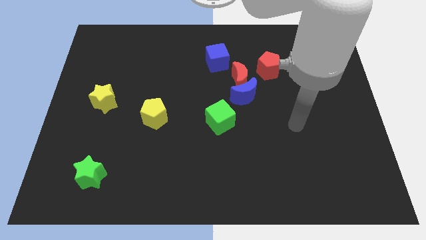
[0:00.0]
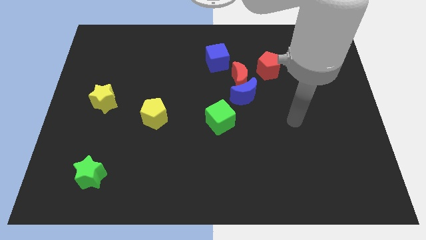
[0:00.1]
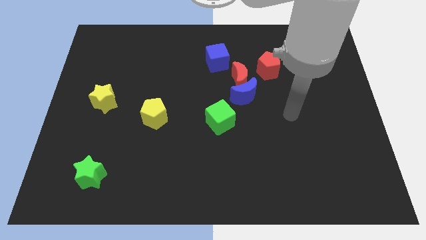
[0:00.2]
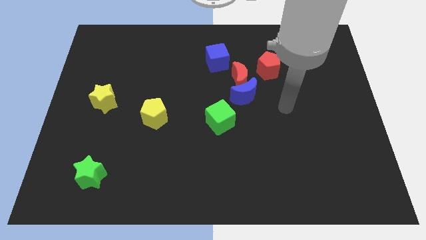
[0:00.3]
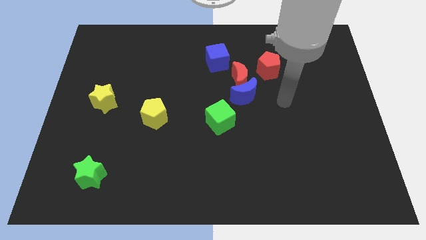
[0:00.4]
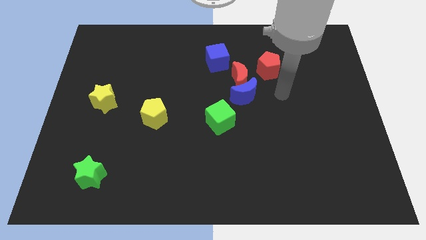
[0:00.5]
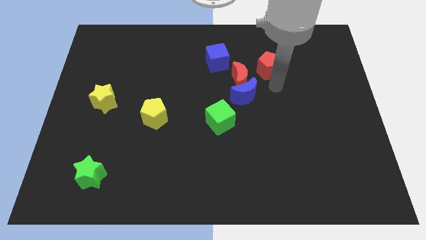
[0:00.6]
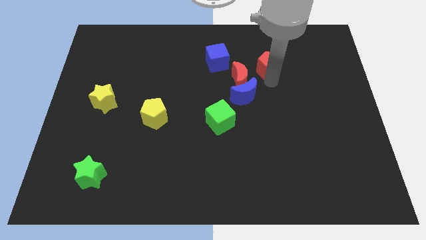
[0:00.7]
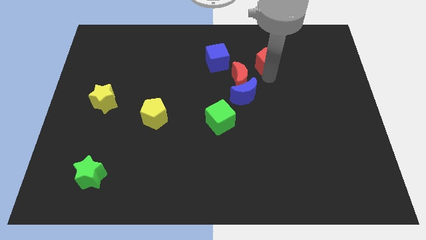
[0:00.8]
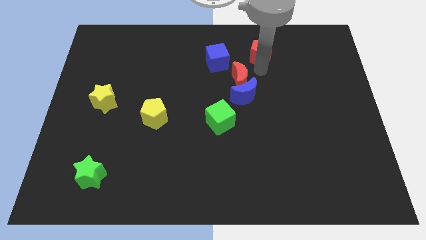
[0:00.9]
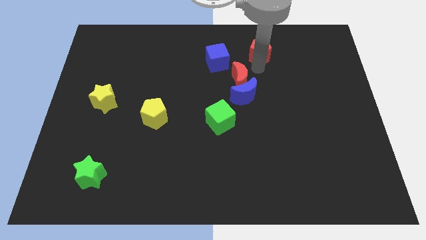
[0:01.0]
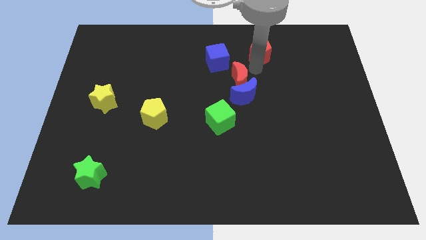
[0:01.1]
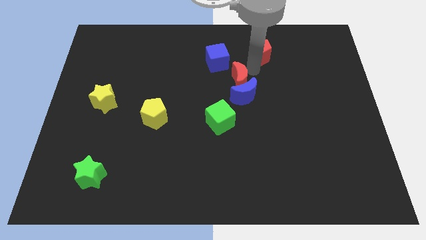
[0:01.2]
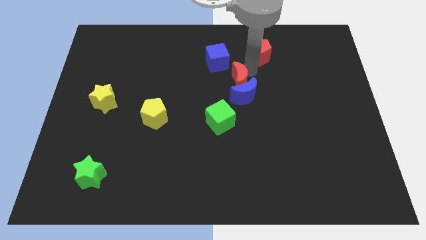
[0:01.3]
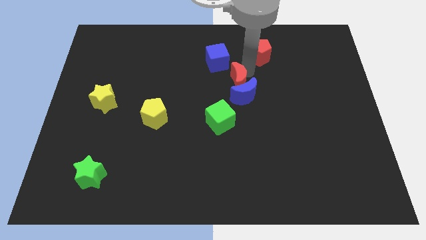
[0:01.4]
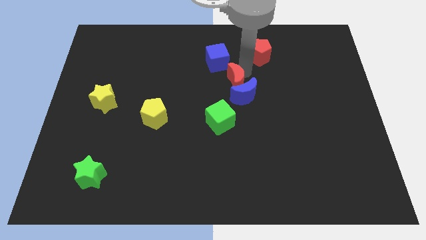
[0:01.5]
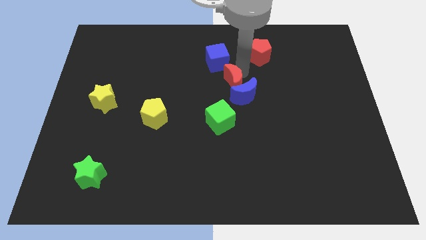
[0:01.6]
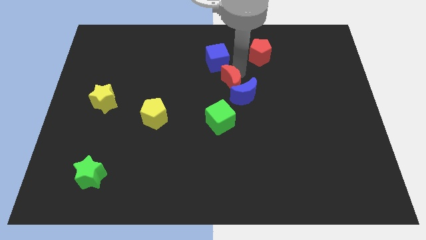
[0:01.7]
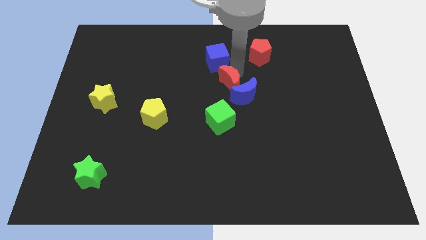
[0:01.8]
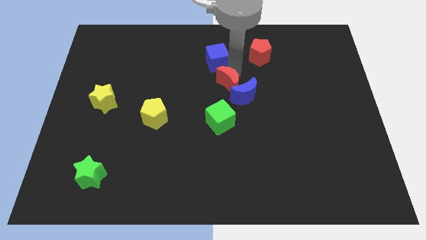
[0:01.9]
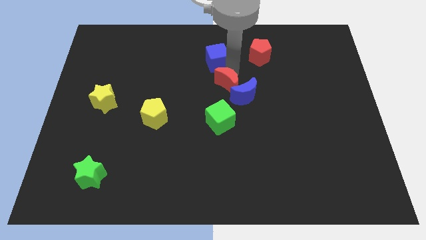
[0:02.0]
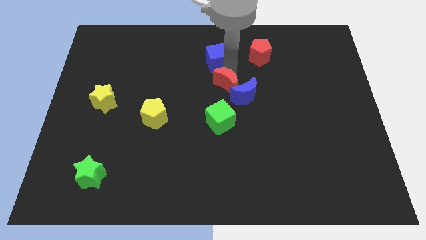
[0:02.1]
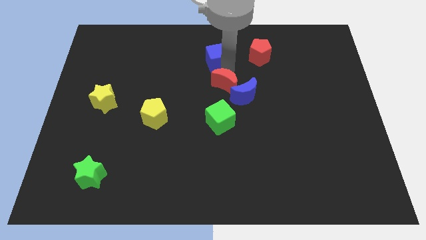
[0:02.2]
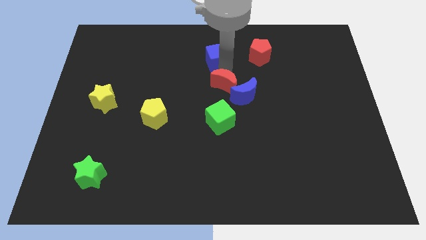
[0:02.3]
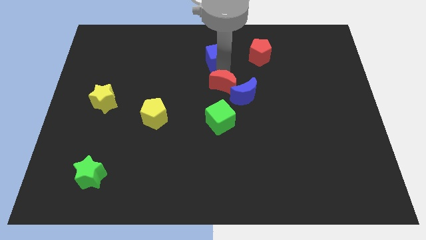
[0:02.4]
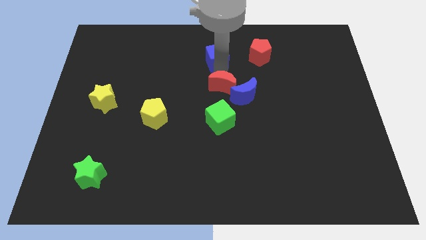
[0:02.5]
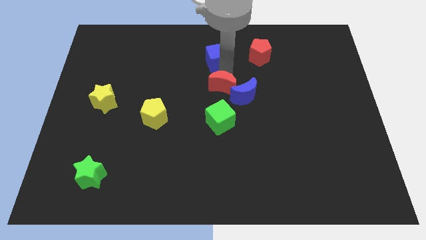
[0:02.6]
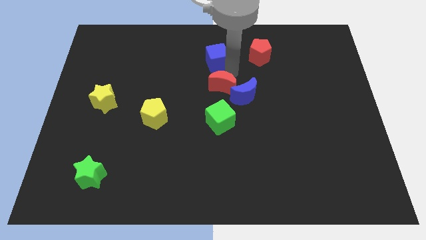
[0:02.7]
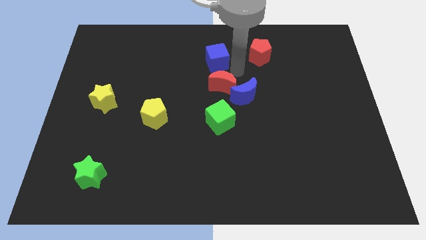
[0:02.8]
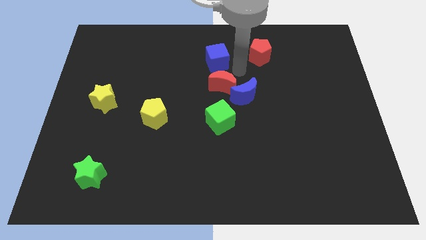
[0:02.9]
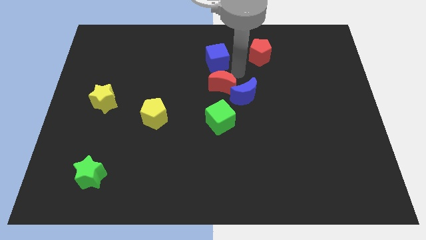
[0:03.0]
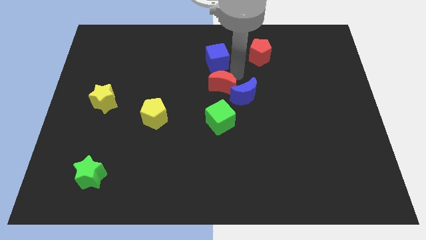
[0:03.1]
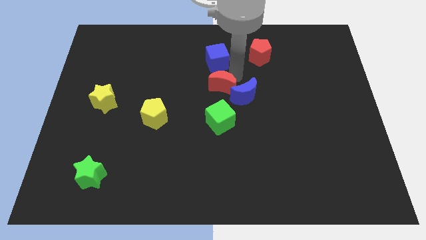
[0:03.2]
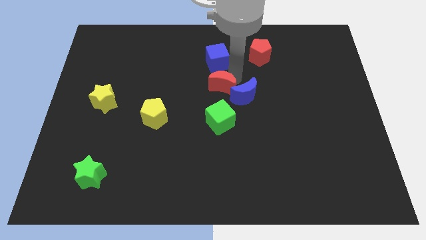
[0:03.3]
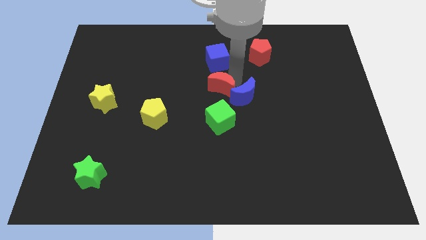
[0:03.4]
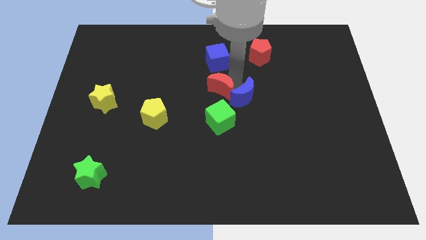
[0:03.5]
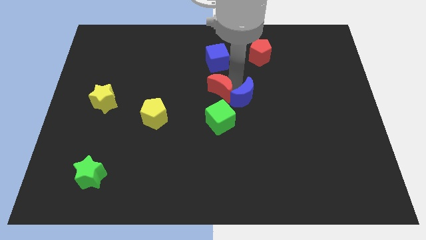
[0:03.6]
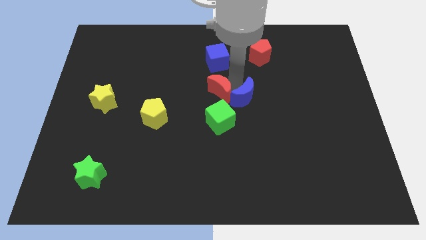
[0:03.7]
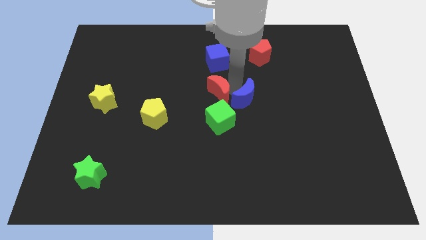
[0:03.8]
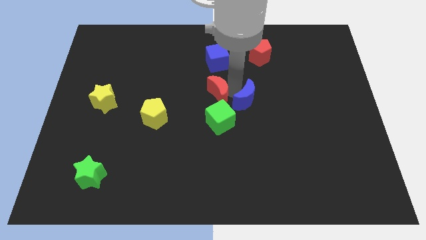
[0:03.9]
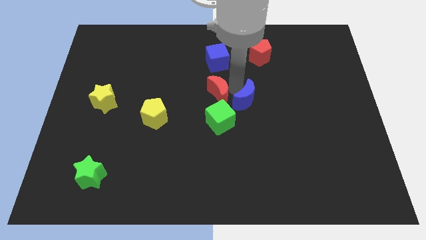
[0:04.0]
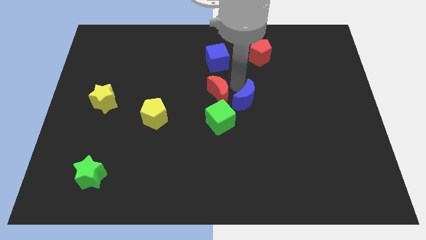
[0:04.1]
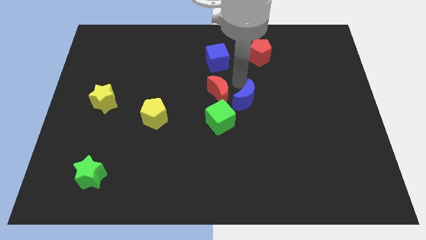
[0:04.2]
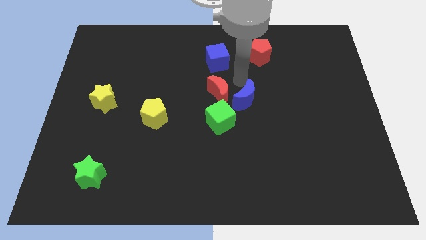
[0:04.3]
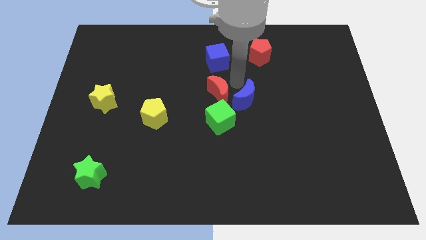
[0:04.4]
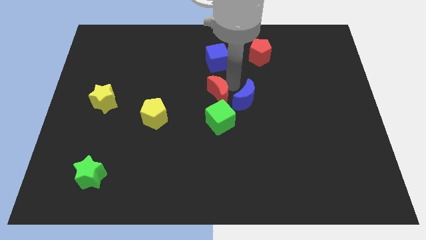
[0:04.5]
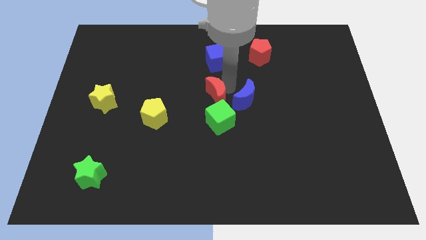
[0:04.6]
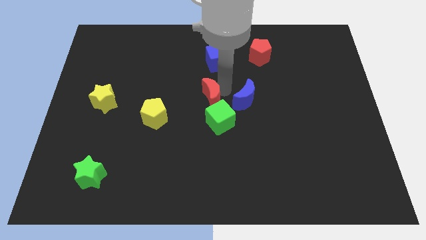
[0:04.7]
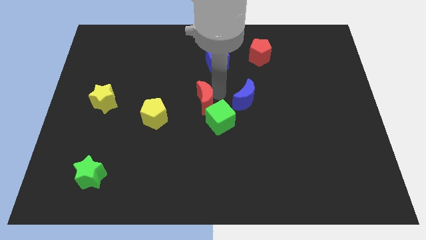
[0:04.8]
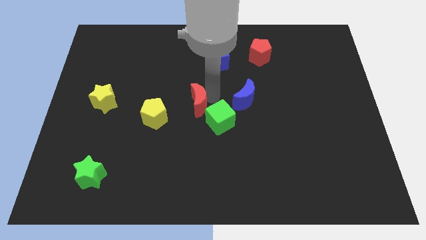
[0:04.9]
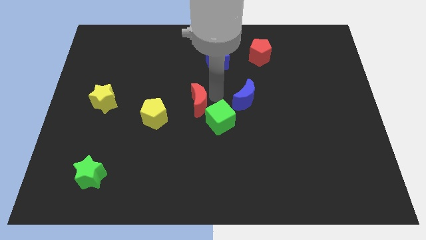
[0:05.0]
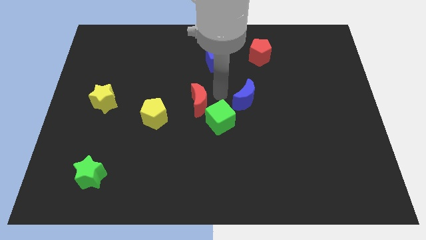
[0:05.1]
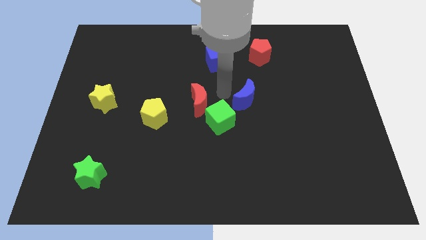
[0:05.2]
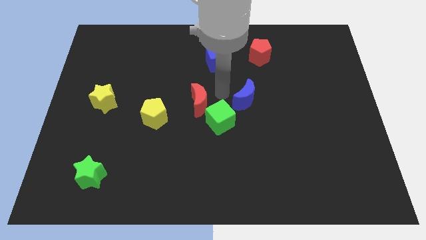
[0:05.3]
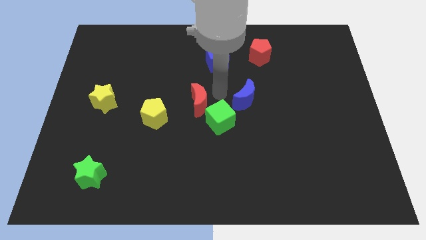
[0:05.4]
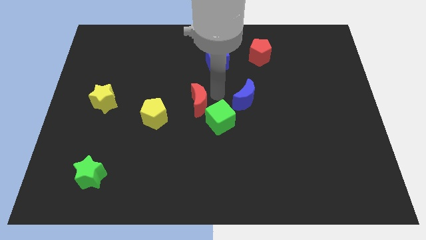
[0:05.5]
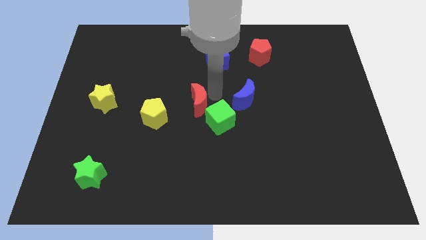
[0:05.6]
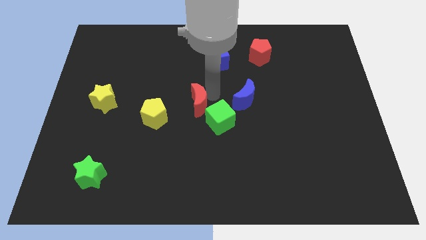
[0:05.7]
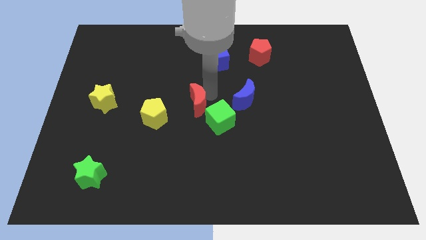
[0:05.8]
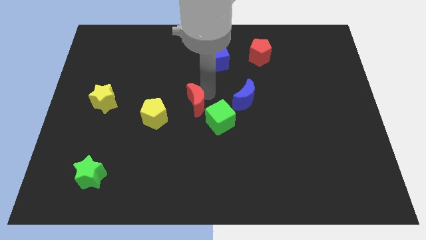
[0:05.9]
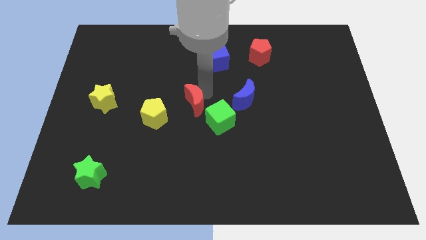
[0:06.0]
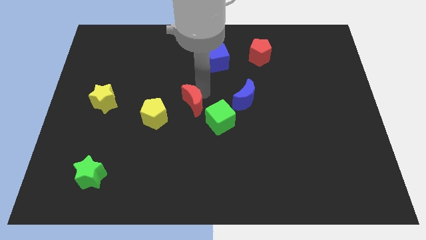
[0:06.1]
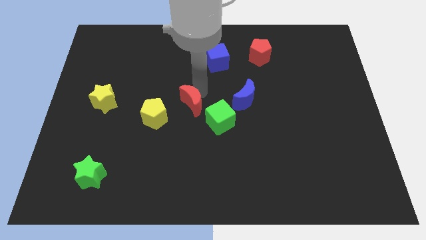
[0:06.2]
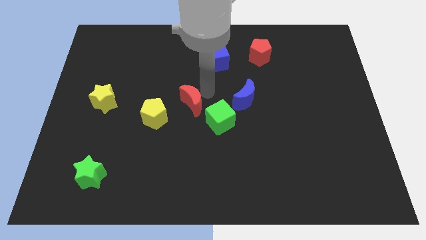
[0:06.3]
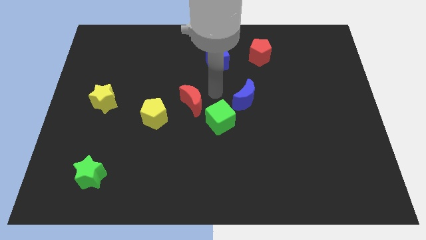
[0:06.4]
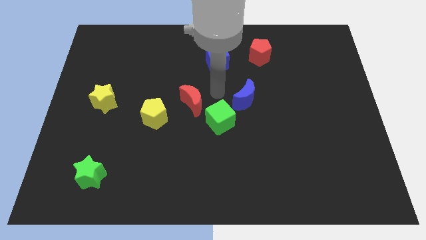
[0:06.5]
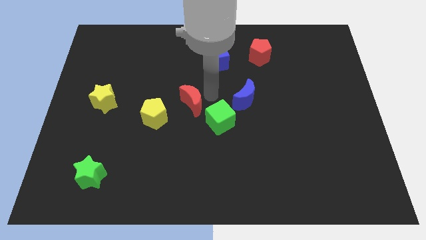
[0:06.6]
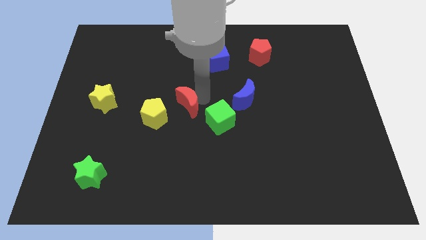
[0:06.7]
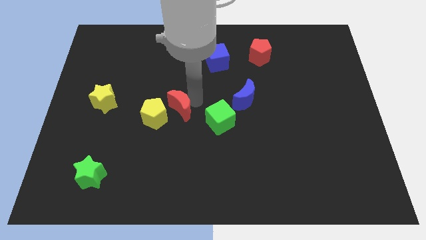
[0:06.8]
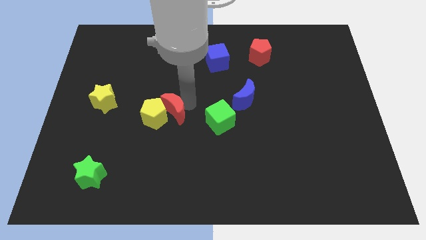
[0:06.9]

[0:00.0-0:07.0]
move the red moon to the yellow pentagon

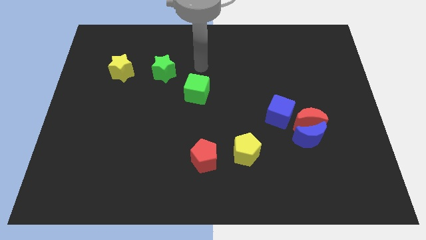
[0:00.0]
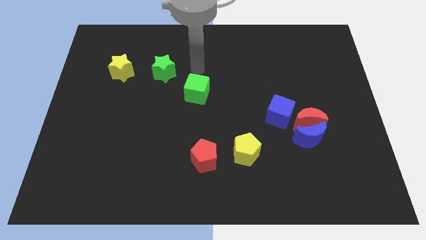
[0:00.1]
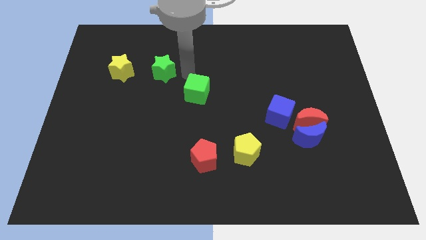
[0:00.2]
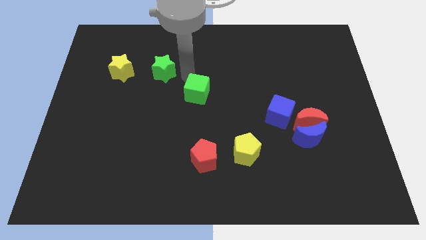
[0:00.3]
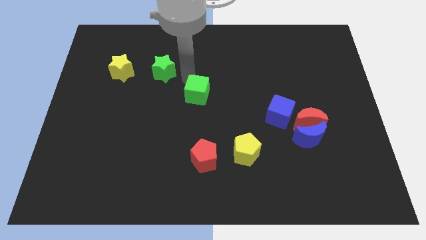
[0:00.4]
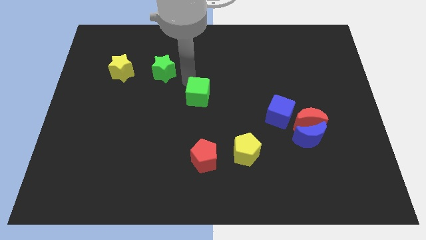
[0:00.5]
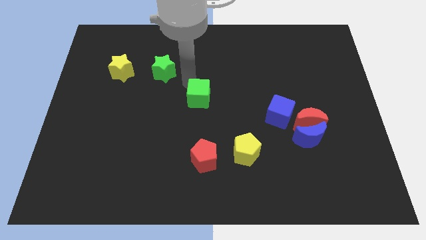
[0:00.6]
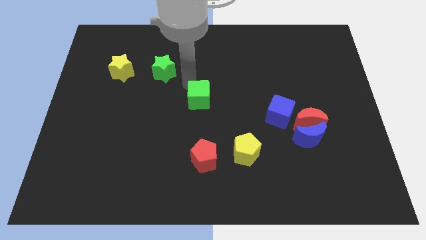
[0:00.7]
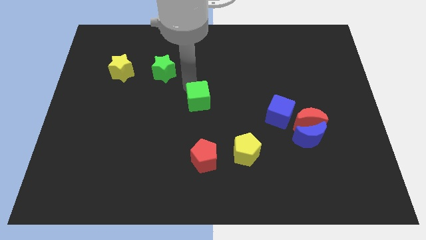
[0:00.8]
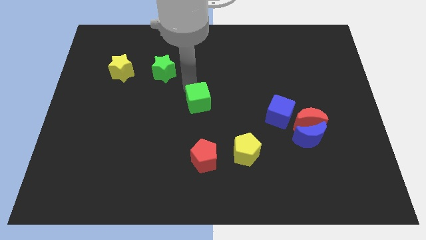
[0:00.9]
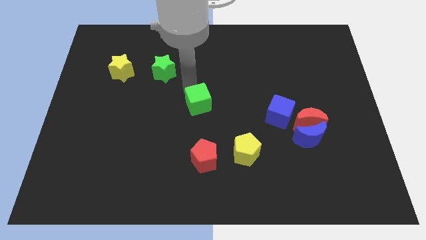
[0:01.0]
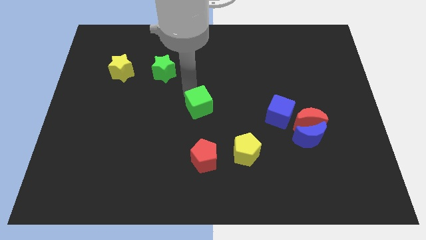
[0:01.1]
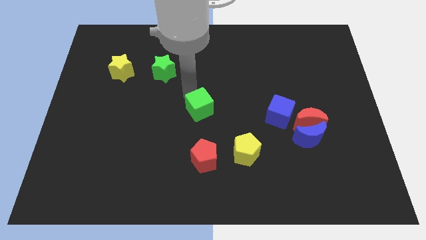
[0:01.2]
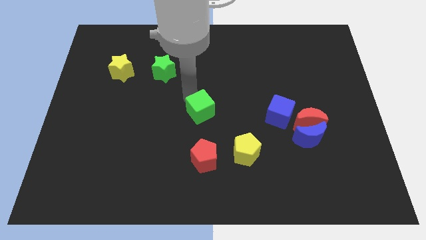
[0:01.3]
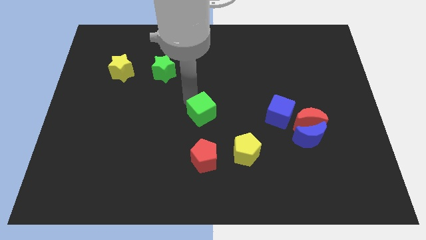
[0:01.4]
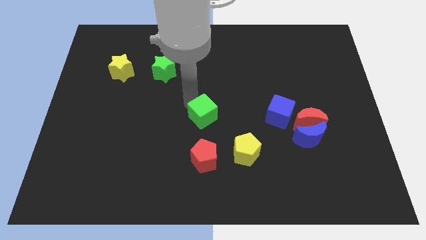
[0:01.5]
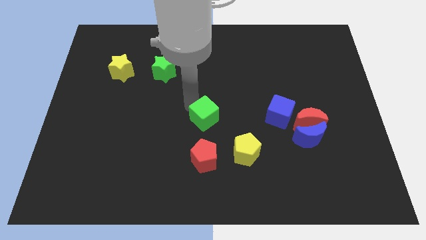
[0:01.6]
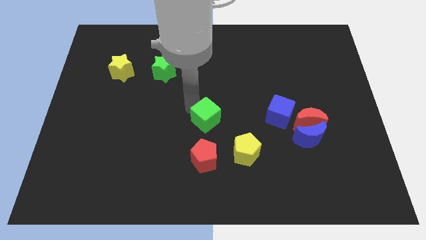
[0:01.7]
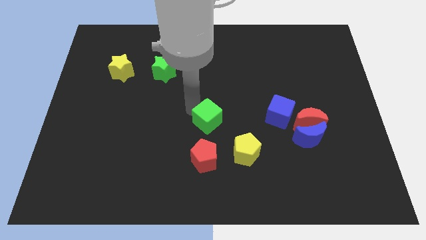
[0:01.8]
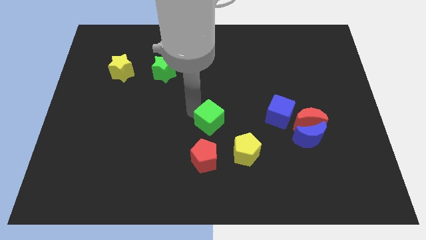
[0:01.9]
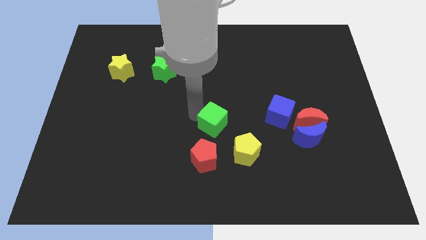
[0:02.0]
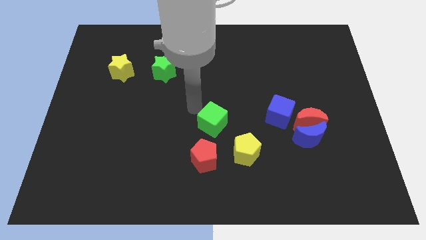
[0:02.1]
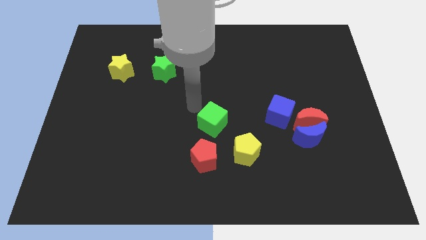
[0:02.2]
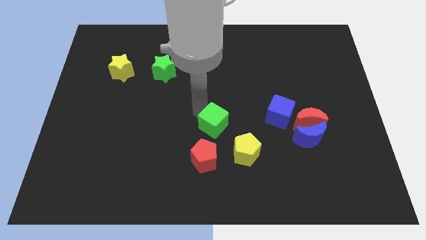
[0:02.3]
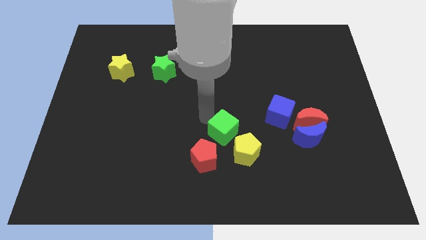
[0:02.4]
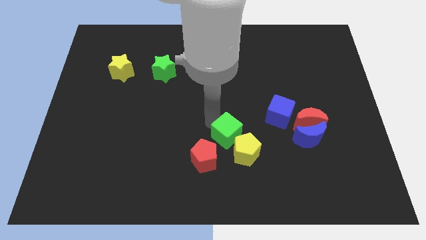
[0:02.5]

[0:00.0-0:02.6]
move the green cube to the yellow pentagon
